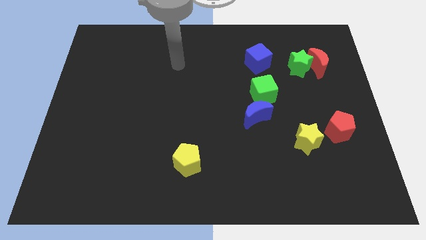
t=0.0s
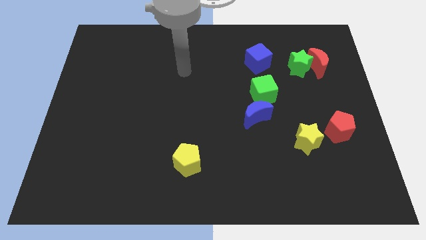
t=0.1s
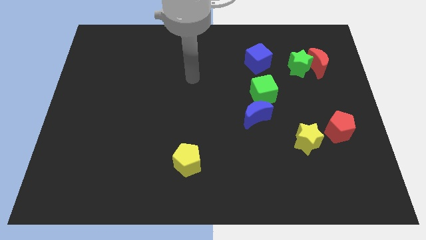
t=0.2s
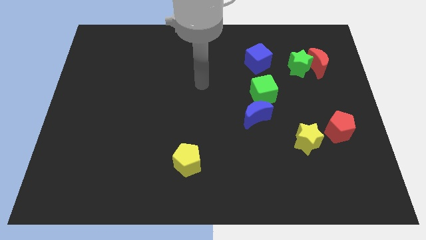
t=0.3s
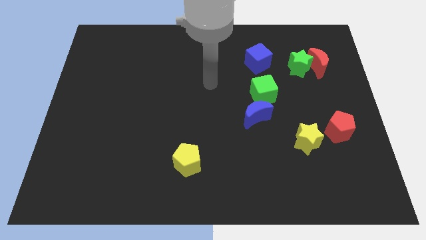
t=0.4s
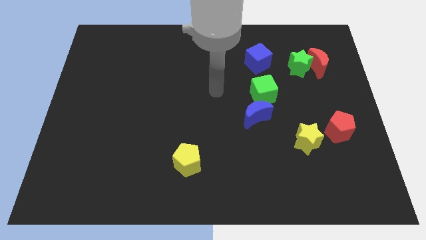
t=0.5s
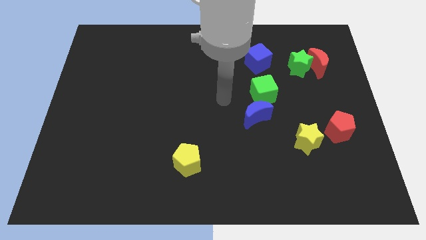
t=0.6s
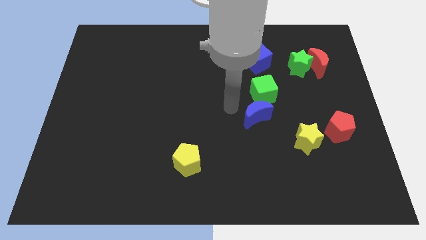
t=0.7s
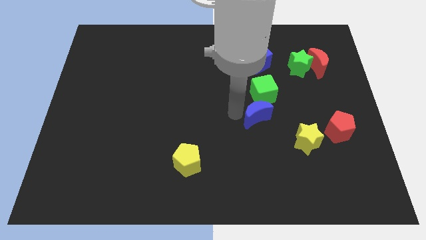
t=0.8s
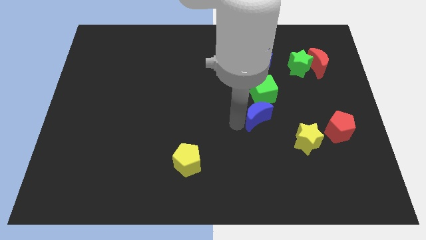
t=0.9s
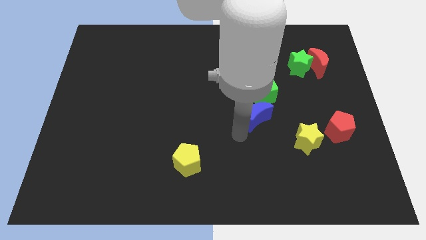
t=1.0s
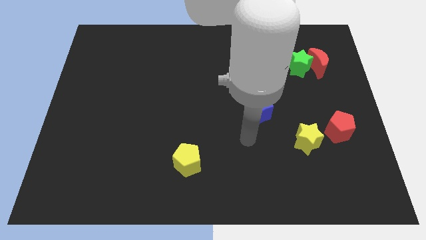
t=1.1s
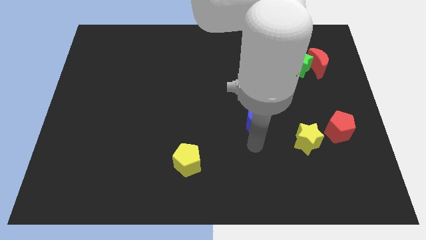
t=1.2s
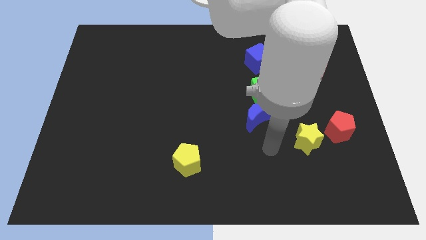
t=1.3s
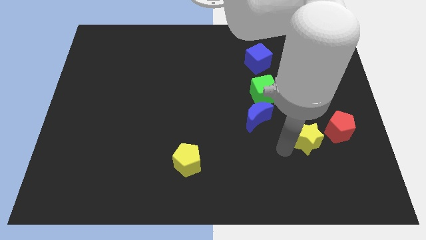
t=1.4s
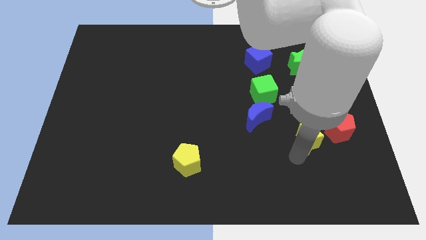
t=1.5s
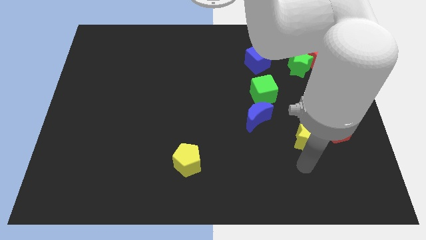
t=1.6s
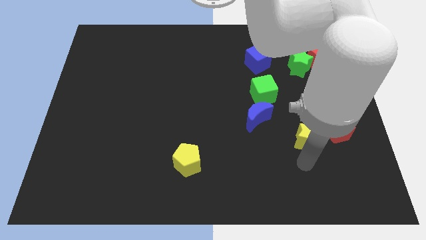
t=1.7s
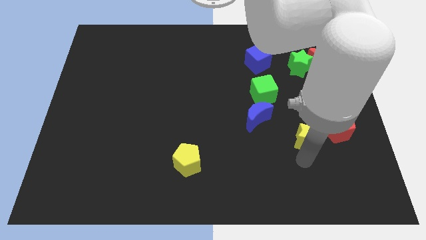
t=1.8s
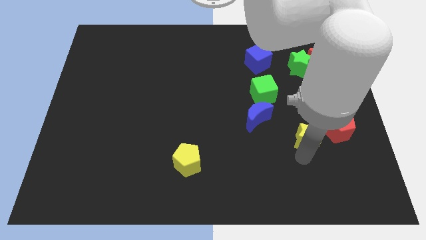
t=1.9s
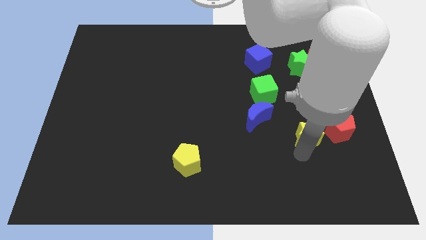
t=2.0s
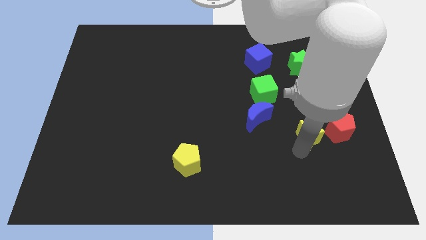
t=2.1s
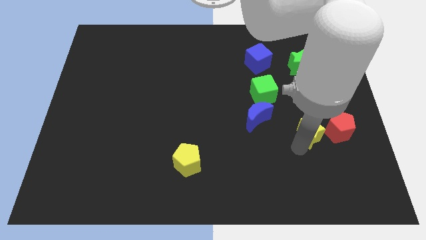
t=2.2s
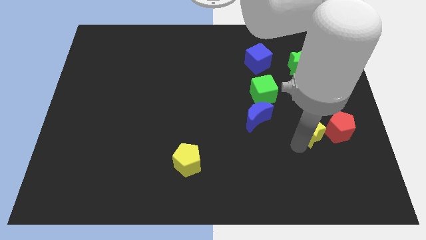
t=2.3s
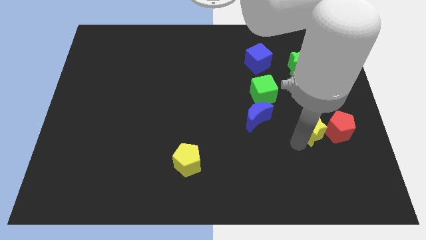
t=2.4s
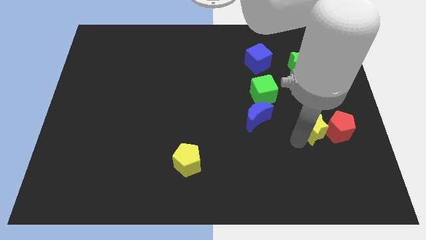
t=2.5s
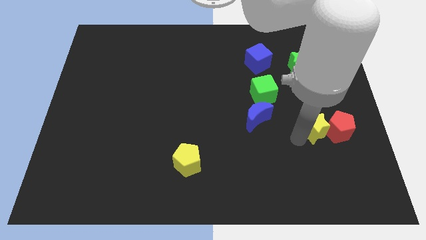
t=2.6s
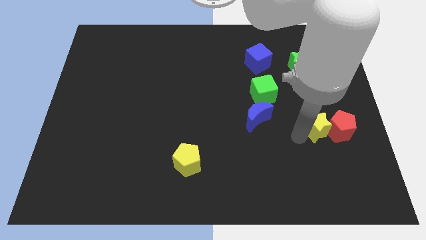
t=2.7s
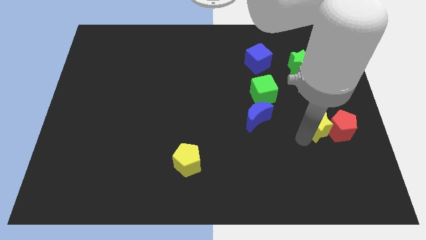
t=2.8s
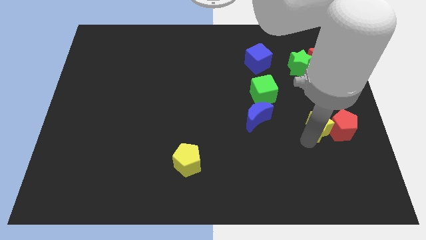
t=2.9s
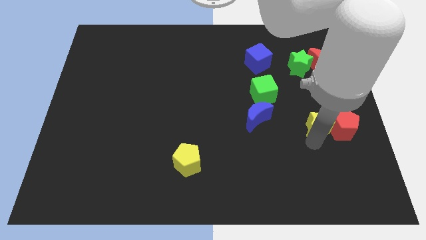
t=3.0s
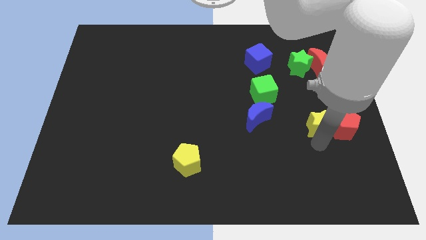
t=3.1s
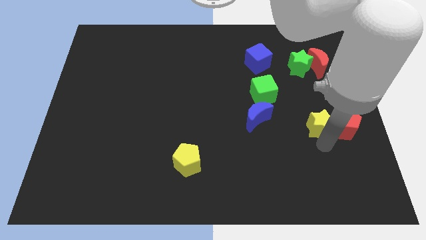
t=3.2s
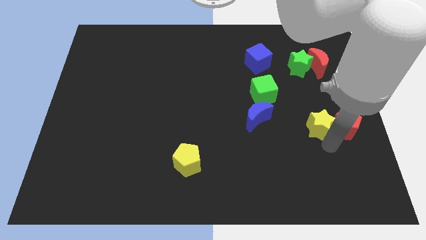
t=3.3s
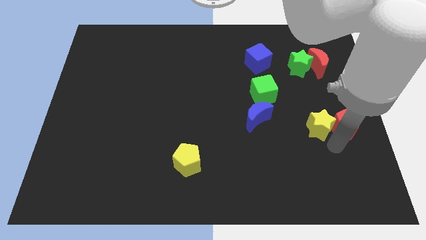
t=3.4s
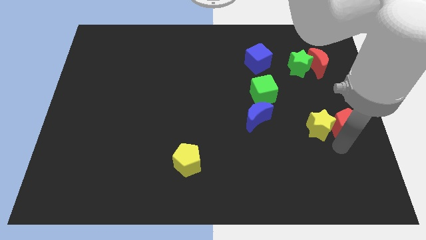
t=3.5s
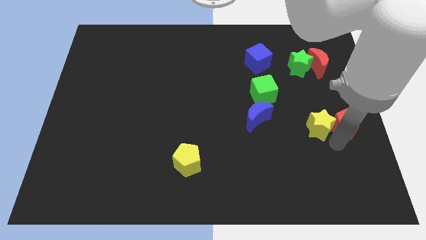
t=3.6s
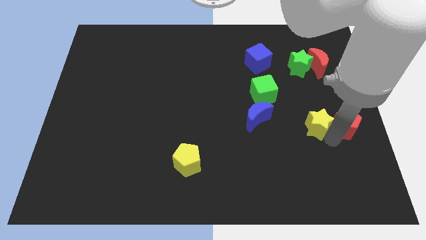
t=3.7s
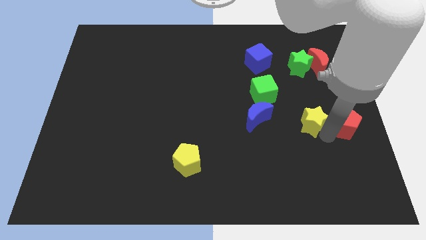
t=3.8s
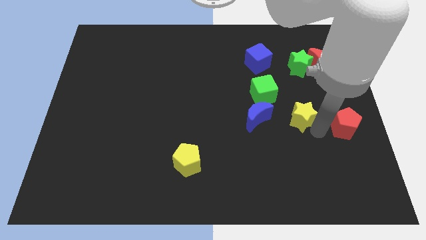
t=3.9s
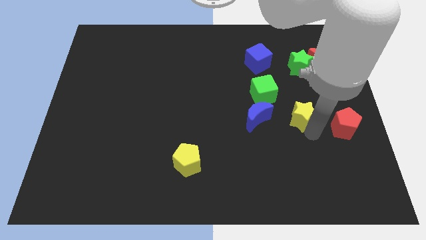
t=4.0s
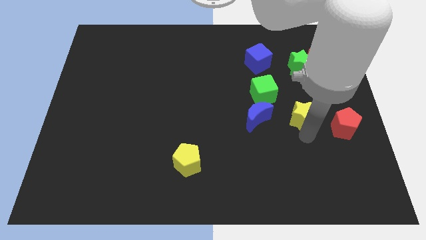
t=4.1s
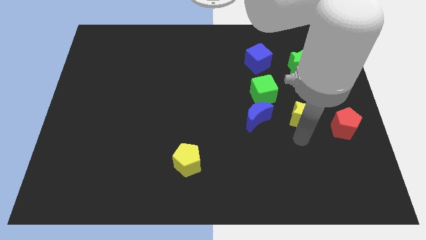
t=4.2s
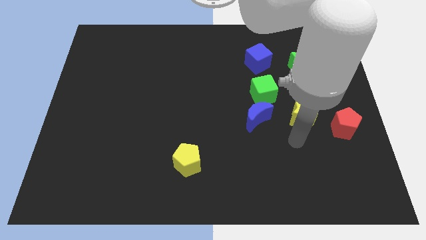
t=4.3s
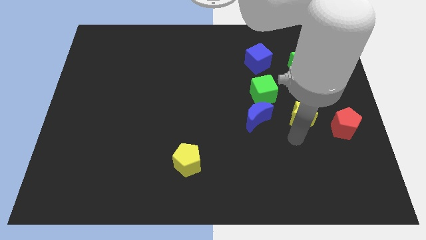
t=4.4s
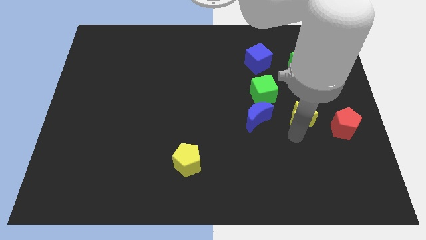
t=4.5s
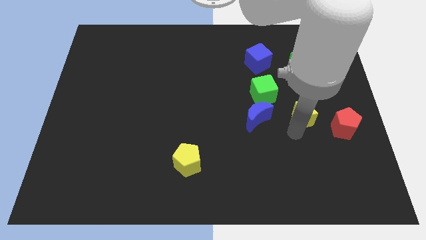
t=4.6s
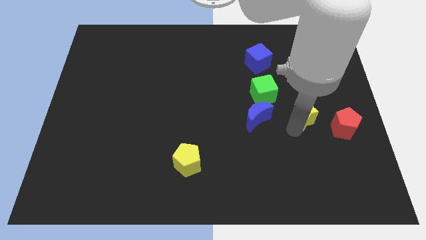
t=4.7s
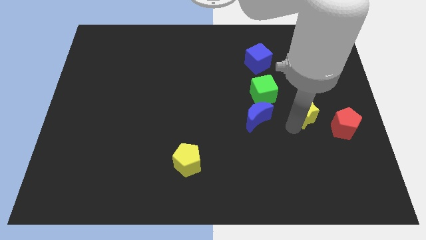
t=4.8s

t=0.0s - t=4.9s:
push the yellow star below the green star

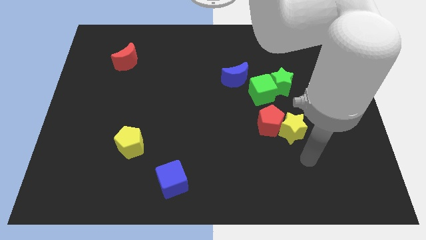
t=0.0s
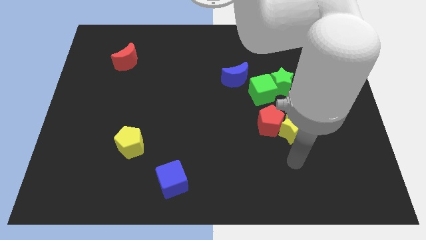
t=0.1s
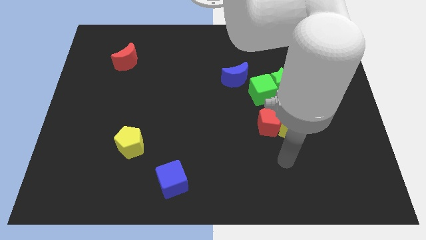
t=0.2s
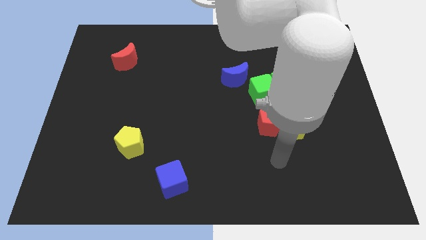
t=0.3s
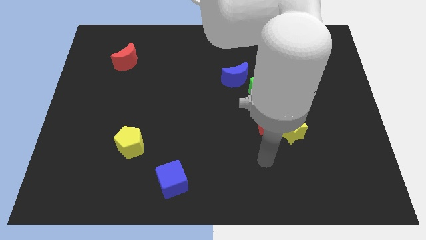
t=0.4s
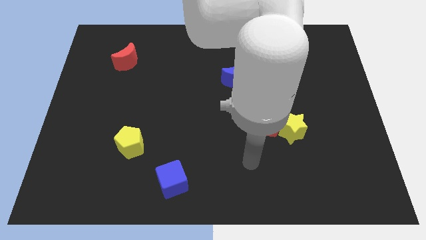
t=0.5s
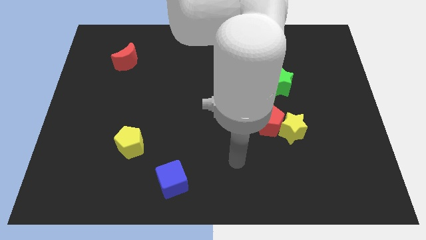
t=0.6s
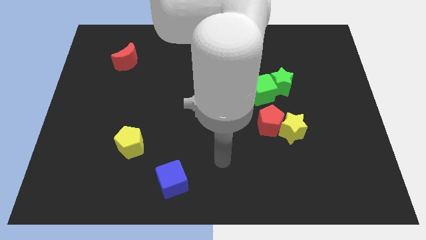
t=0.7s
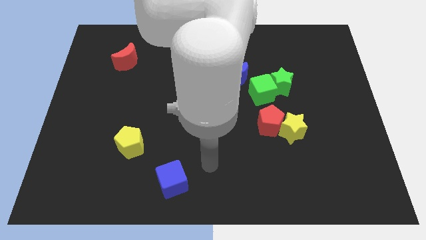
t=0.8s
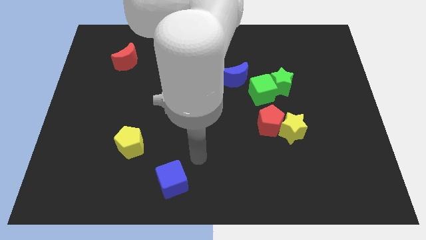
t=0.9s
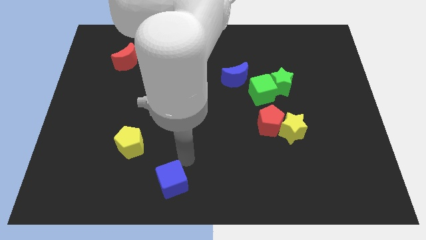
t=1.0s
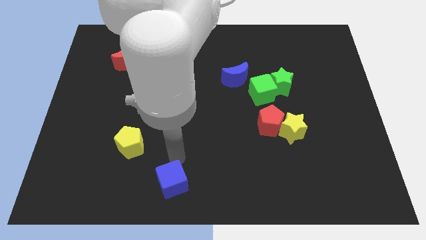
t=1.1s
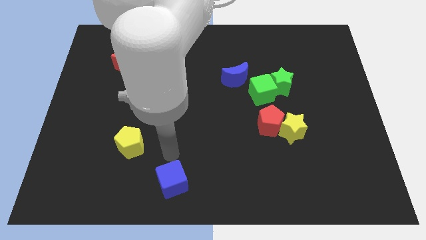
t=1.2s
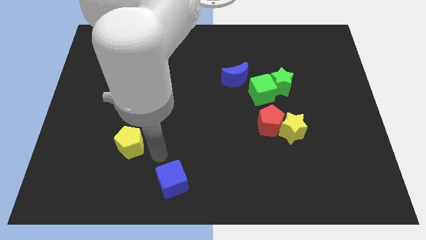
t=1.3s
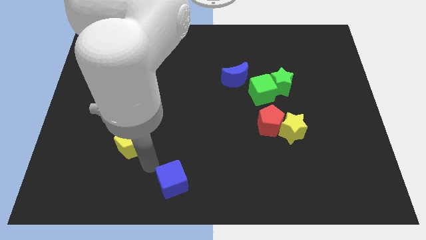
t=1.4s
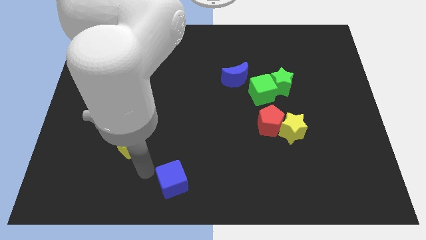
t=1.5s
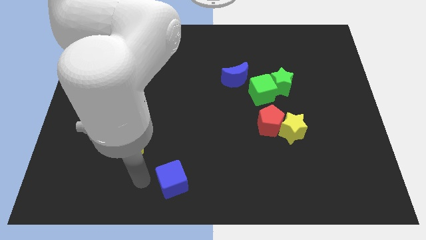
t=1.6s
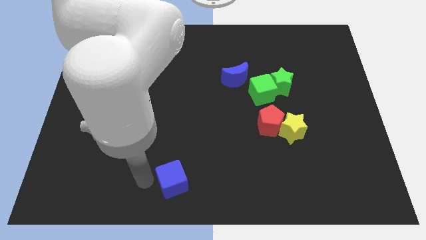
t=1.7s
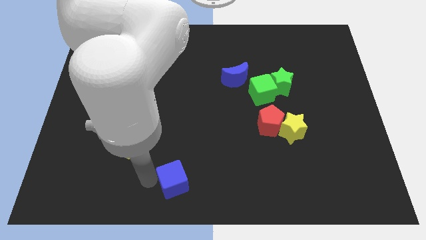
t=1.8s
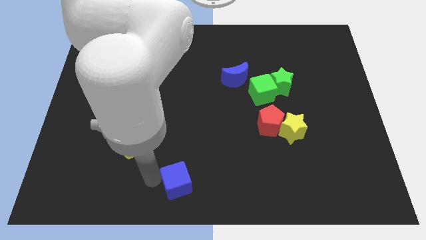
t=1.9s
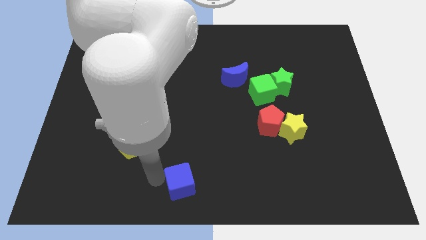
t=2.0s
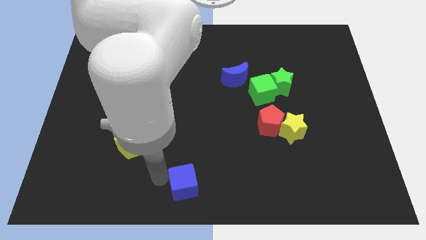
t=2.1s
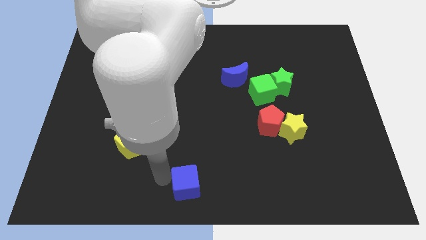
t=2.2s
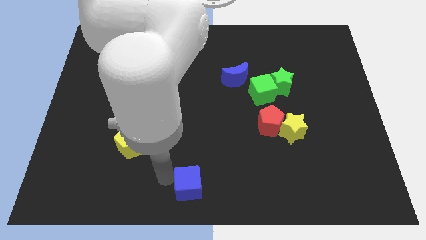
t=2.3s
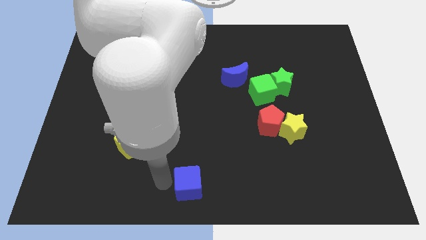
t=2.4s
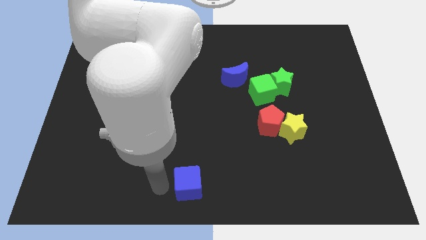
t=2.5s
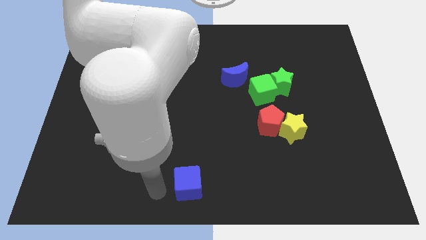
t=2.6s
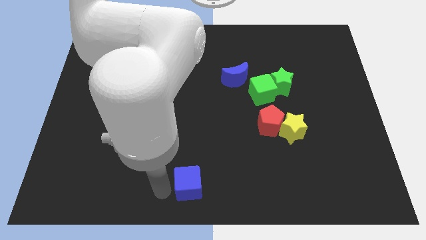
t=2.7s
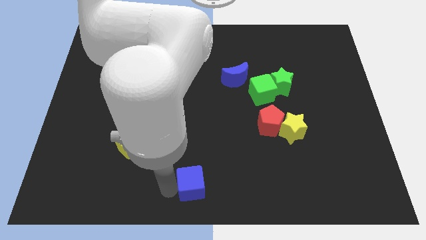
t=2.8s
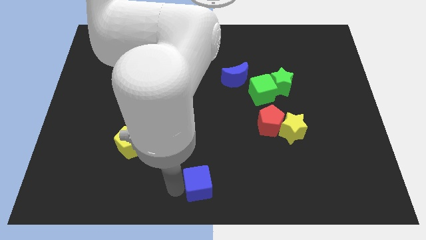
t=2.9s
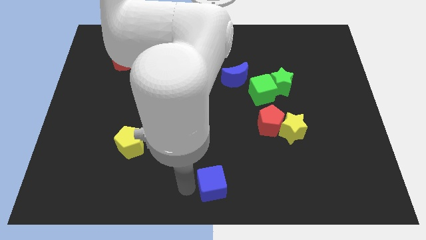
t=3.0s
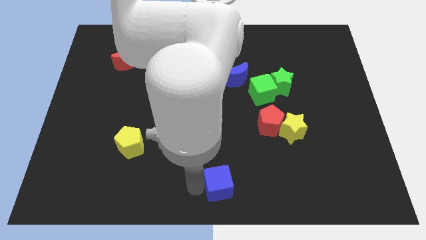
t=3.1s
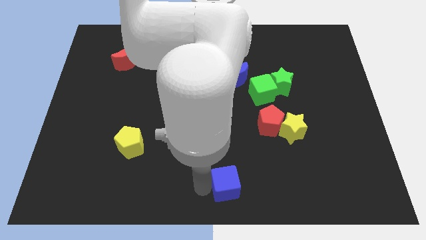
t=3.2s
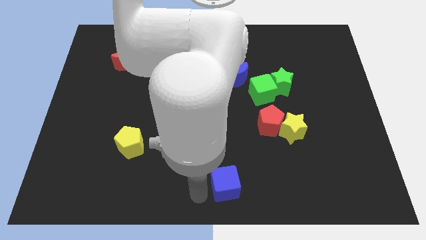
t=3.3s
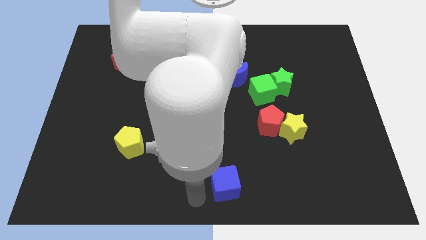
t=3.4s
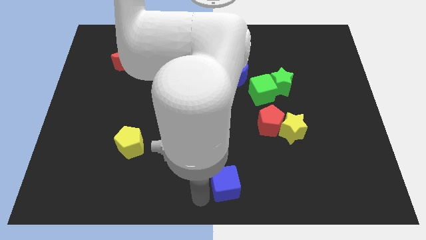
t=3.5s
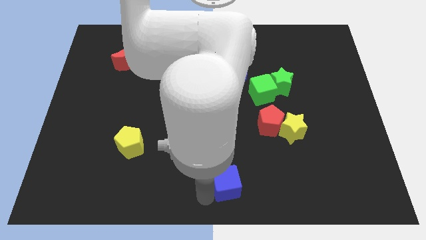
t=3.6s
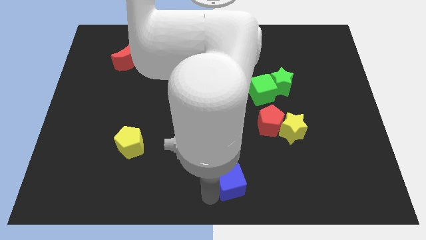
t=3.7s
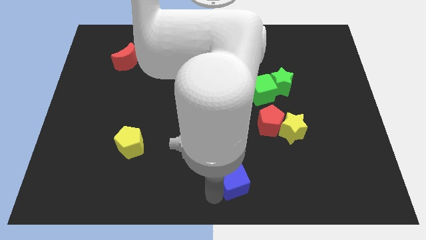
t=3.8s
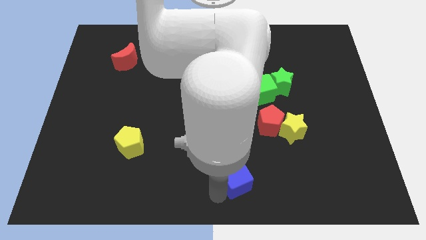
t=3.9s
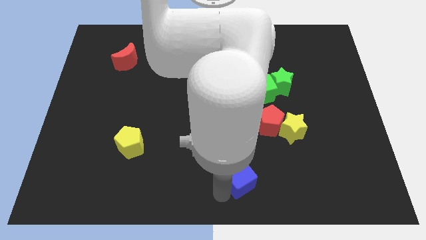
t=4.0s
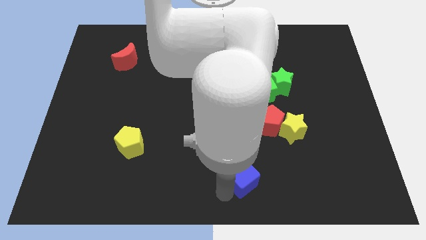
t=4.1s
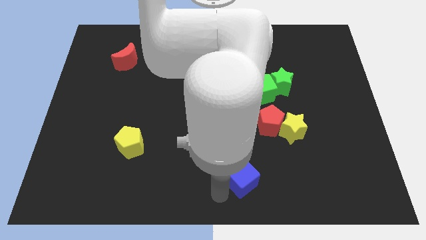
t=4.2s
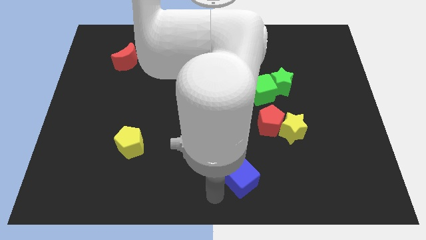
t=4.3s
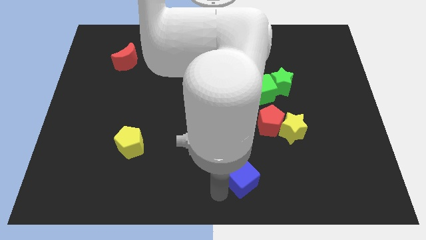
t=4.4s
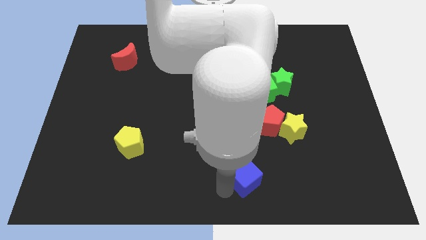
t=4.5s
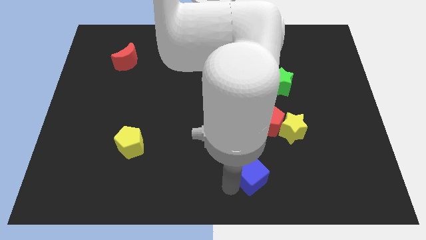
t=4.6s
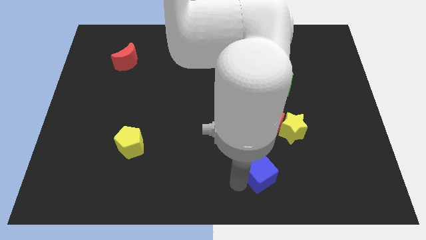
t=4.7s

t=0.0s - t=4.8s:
push the blue cube to the bottom side of the red pentagon
